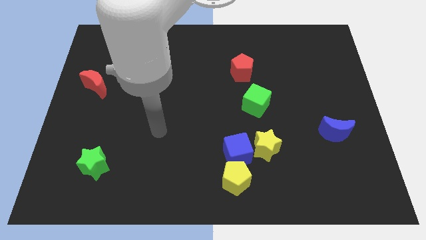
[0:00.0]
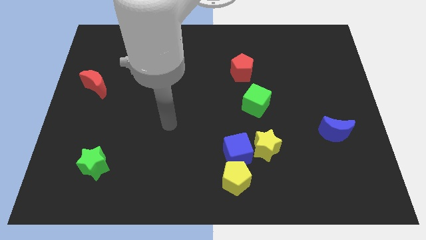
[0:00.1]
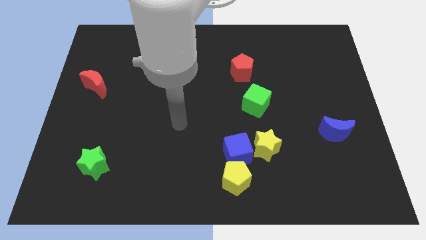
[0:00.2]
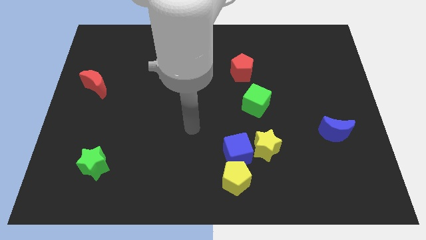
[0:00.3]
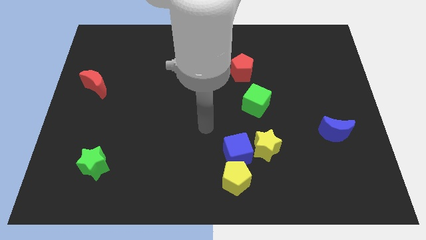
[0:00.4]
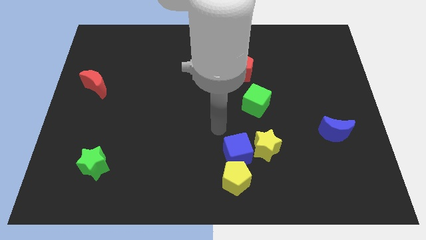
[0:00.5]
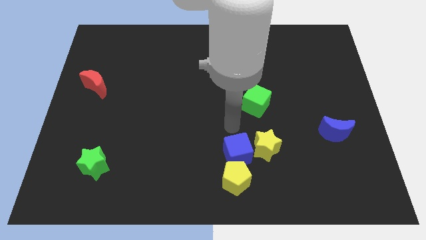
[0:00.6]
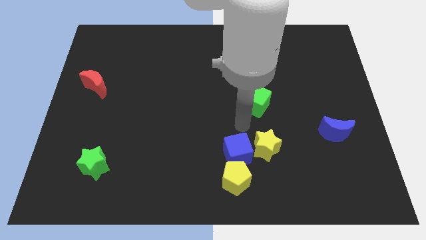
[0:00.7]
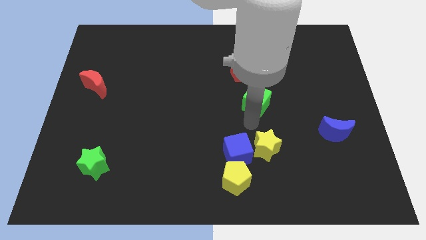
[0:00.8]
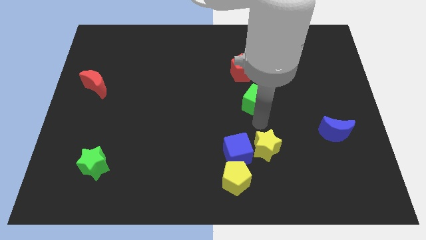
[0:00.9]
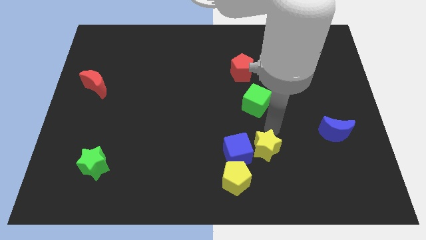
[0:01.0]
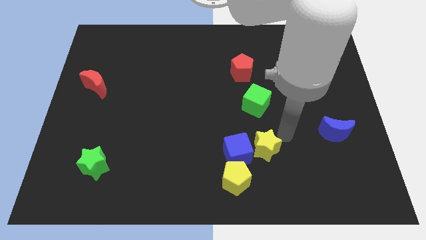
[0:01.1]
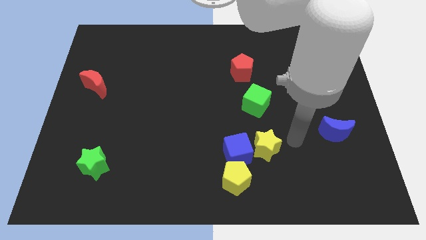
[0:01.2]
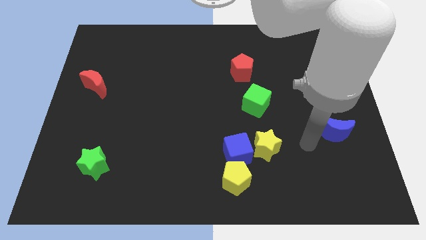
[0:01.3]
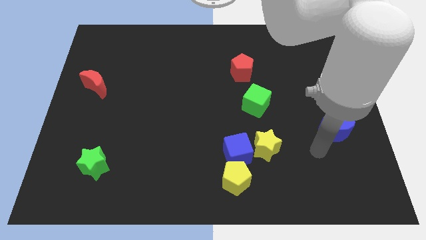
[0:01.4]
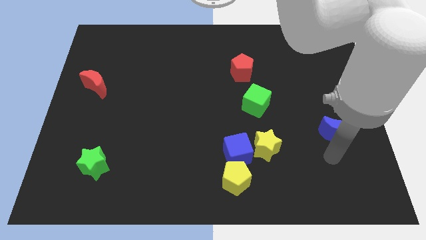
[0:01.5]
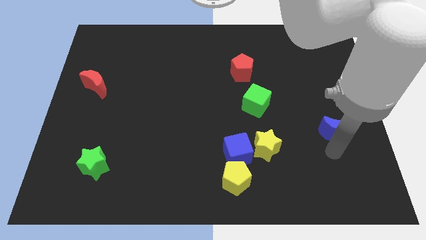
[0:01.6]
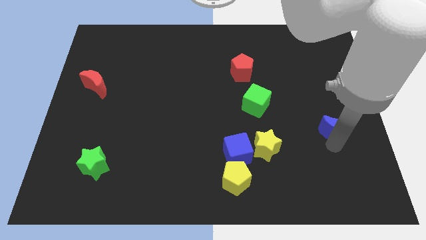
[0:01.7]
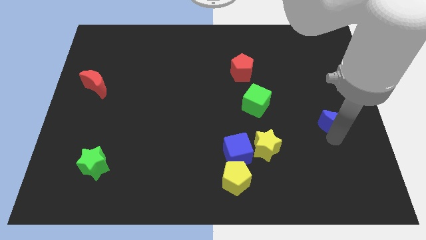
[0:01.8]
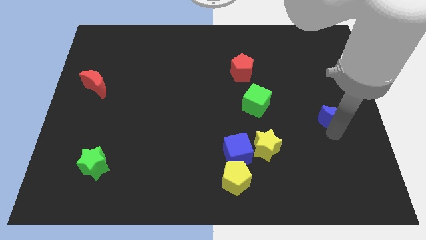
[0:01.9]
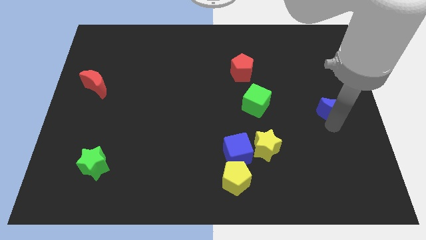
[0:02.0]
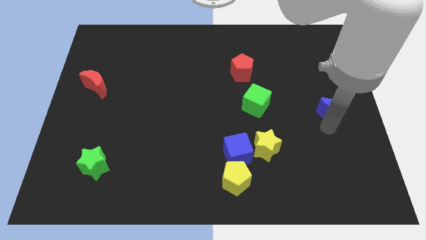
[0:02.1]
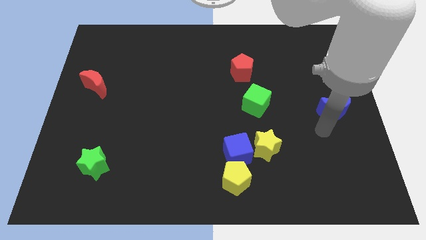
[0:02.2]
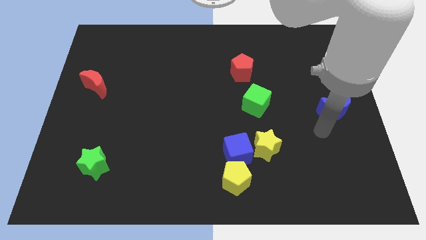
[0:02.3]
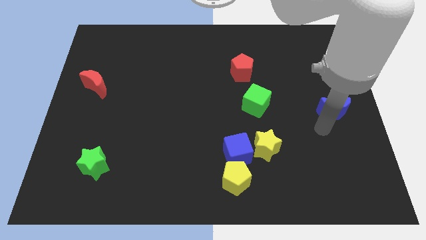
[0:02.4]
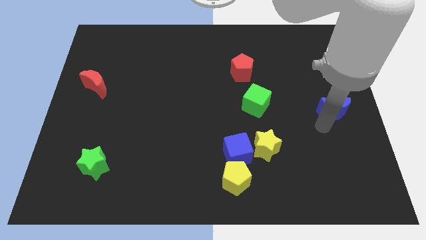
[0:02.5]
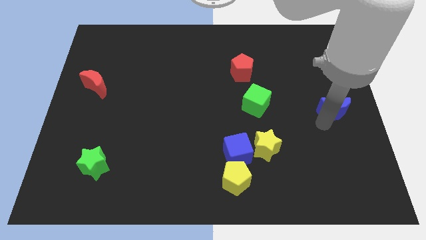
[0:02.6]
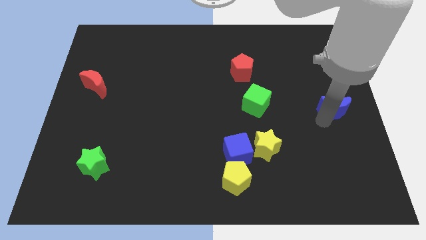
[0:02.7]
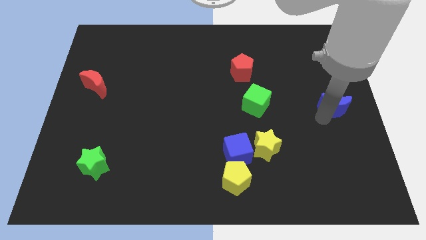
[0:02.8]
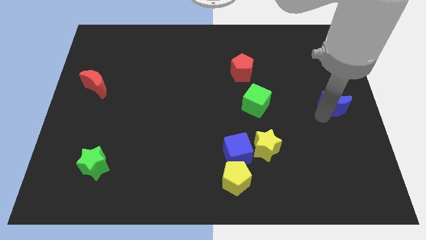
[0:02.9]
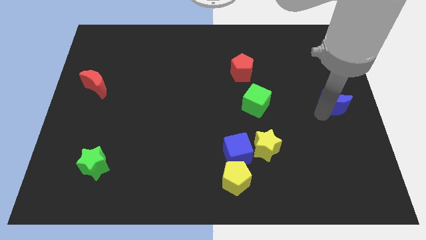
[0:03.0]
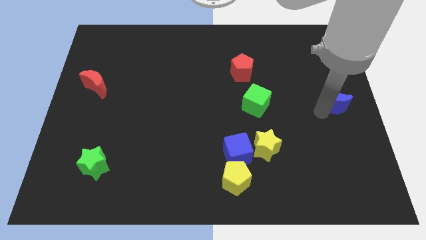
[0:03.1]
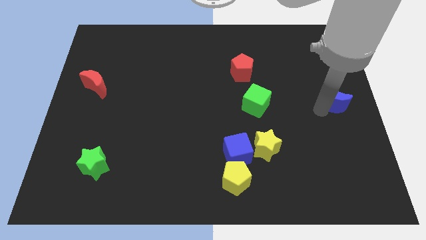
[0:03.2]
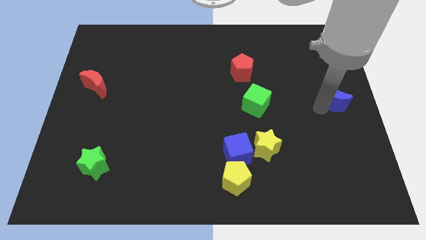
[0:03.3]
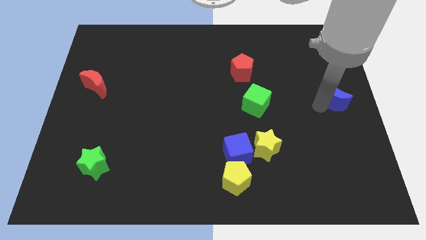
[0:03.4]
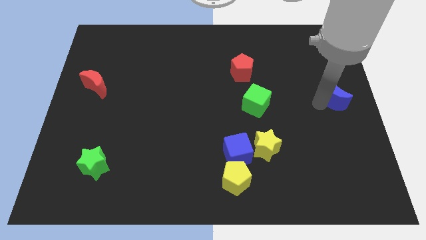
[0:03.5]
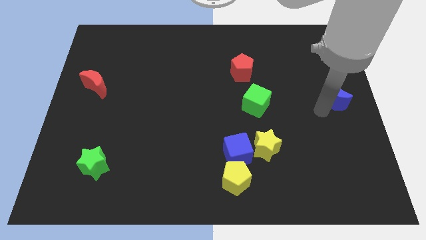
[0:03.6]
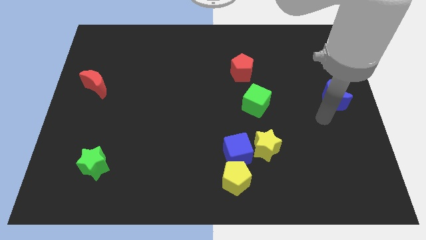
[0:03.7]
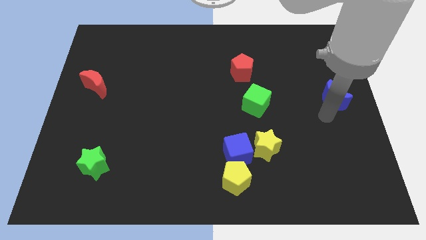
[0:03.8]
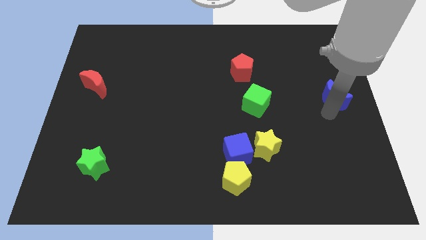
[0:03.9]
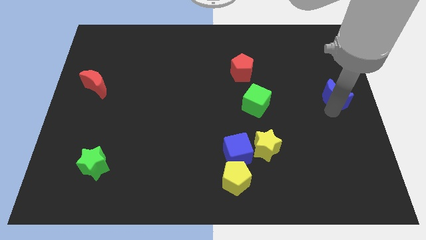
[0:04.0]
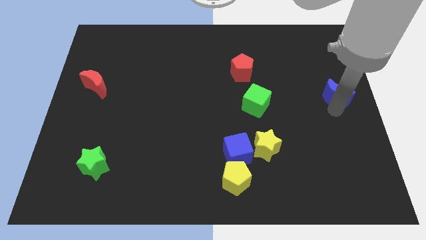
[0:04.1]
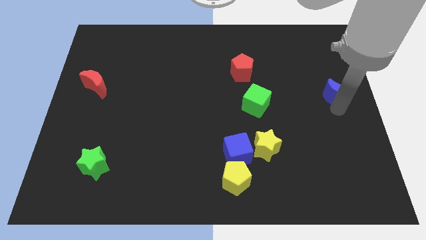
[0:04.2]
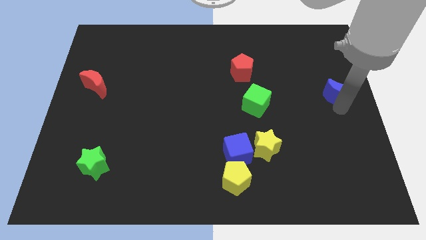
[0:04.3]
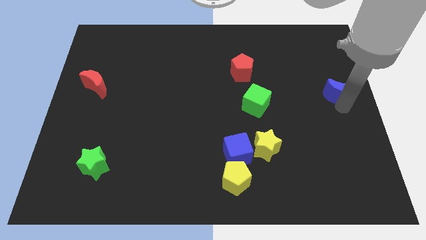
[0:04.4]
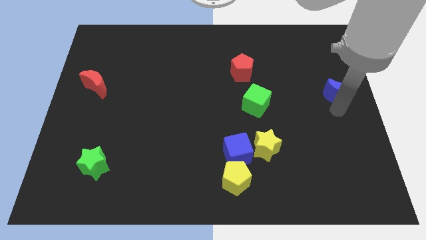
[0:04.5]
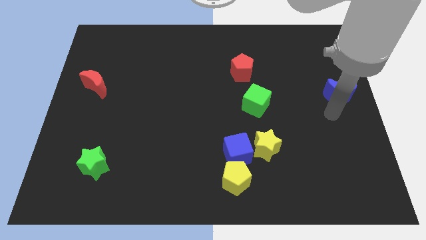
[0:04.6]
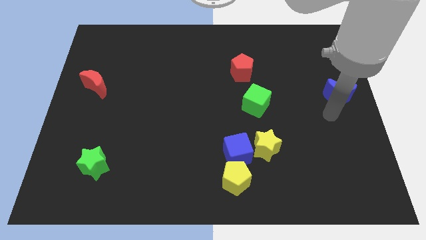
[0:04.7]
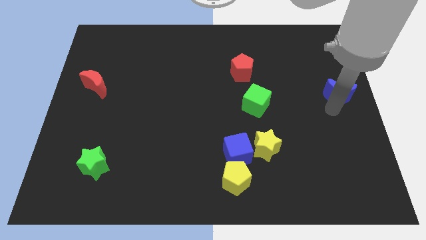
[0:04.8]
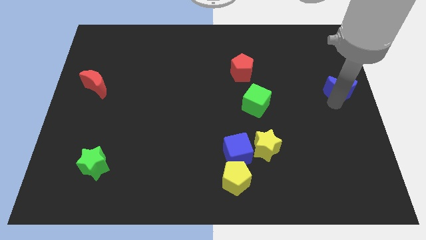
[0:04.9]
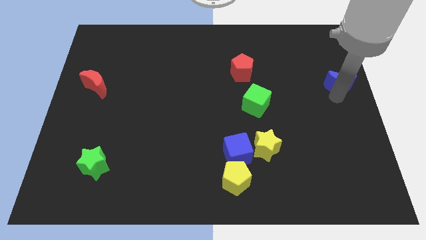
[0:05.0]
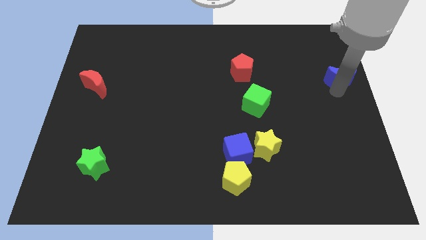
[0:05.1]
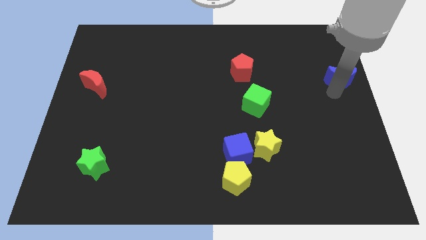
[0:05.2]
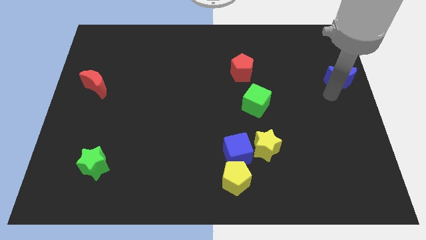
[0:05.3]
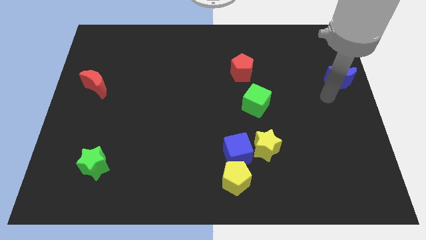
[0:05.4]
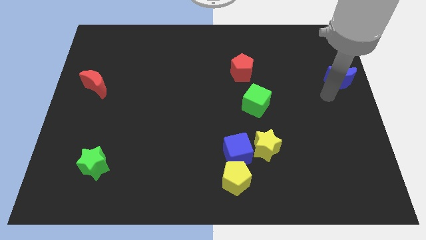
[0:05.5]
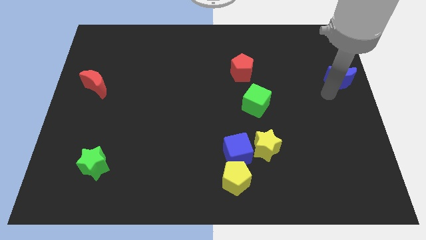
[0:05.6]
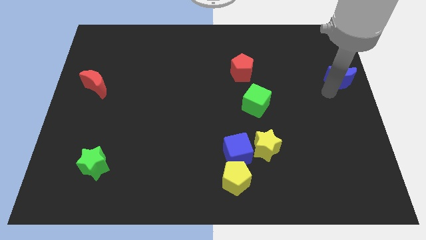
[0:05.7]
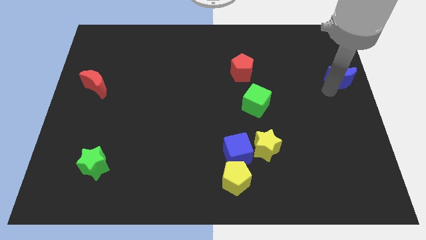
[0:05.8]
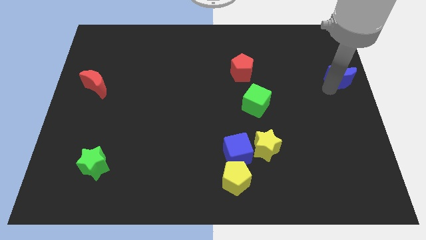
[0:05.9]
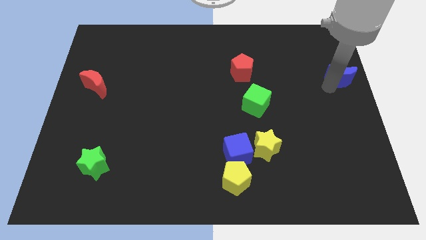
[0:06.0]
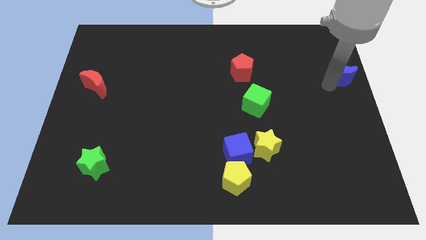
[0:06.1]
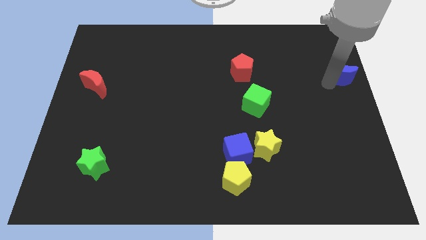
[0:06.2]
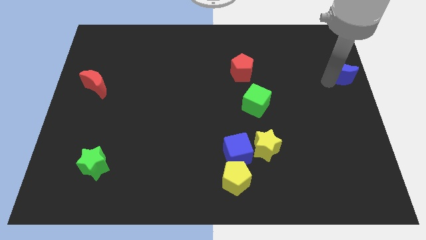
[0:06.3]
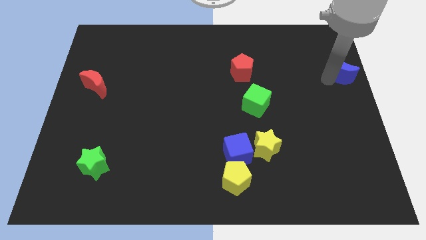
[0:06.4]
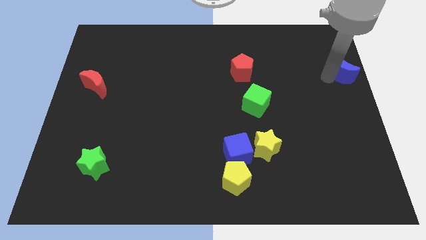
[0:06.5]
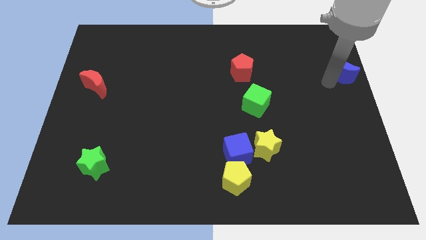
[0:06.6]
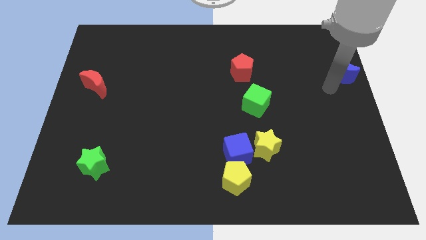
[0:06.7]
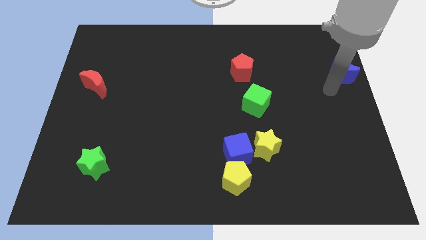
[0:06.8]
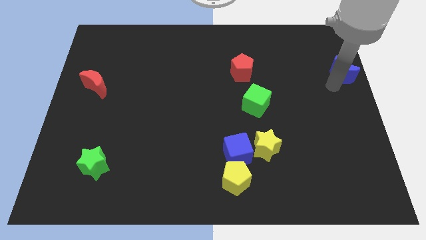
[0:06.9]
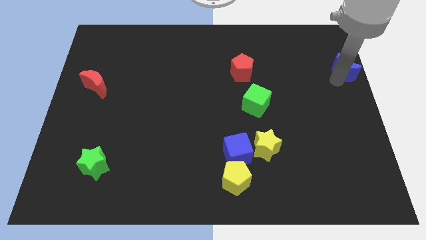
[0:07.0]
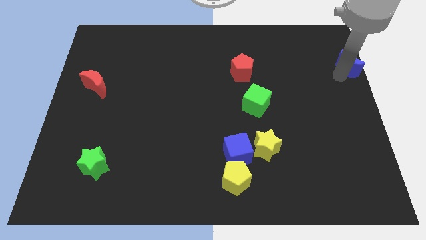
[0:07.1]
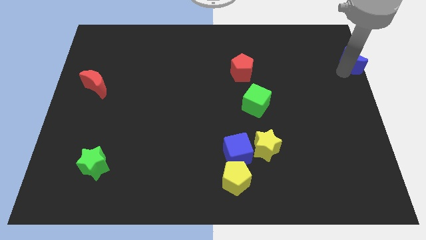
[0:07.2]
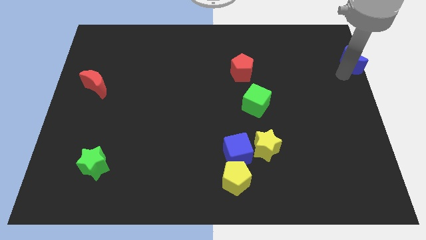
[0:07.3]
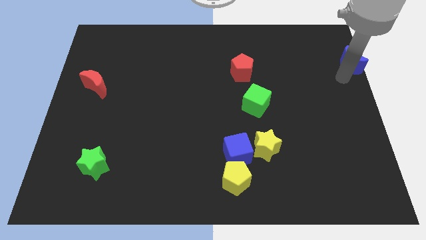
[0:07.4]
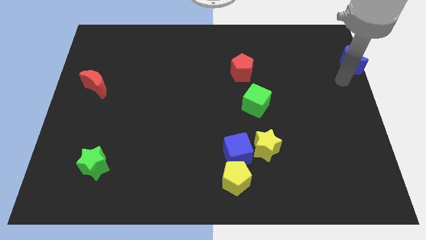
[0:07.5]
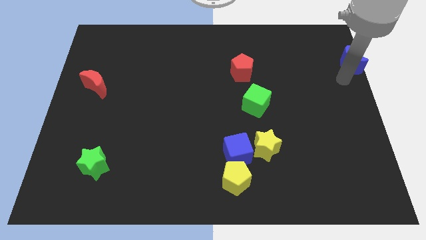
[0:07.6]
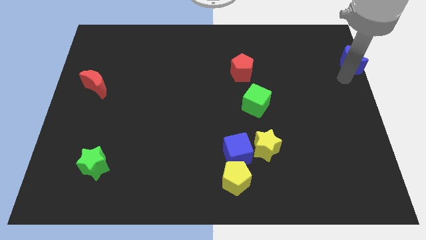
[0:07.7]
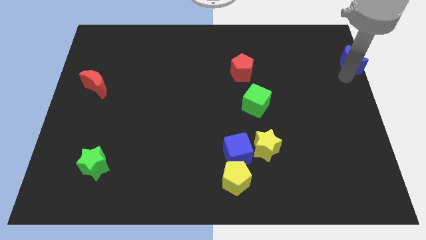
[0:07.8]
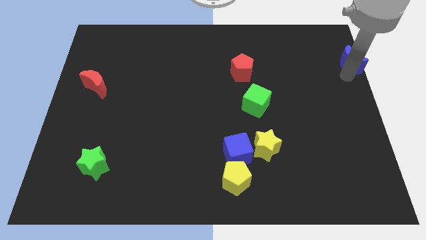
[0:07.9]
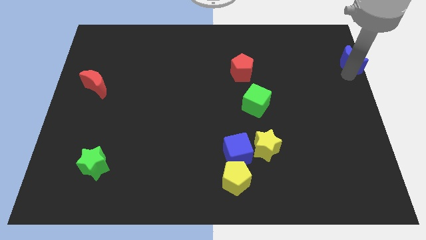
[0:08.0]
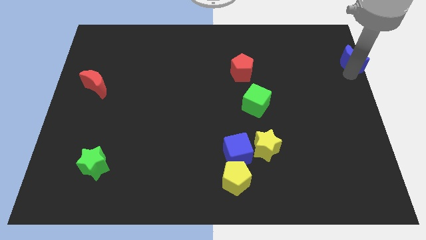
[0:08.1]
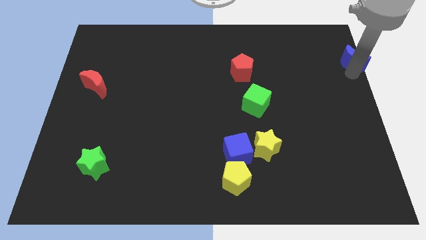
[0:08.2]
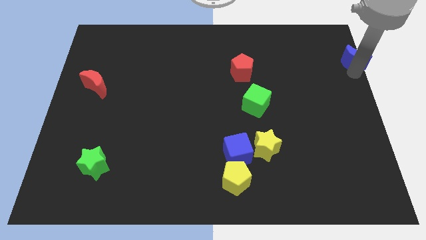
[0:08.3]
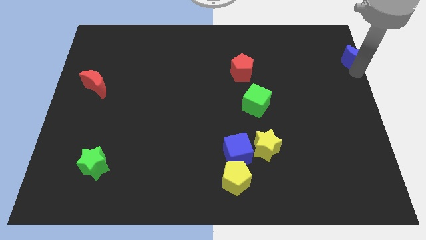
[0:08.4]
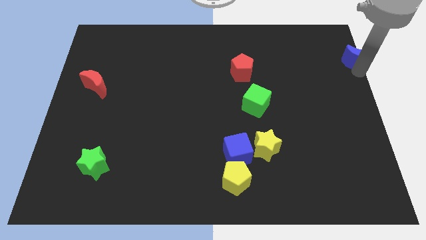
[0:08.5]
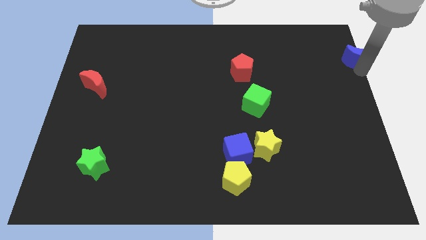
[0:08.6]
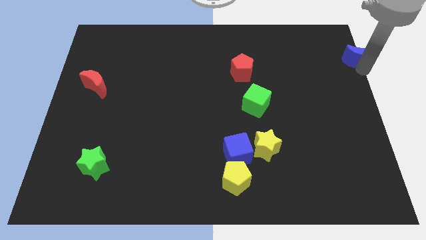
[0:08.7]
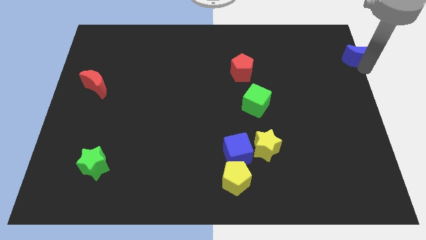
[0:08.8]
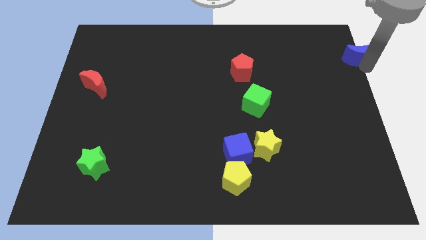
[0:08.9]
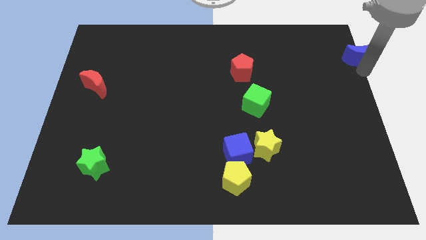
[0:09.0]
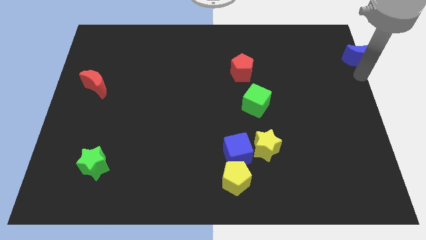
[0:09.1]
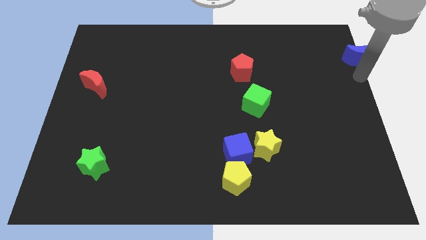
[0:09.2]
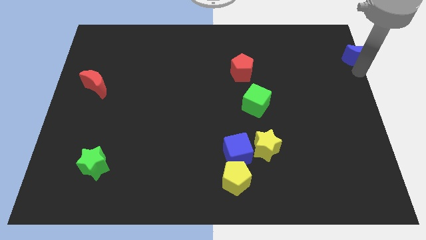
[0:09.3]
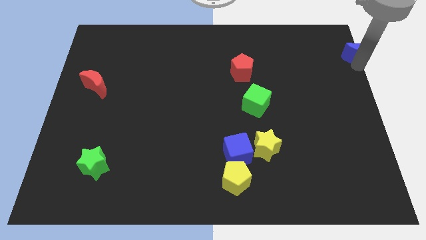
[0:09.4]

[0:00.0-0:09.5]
put the blue moon to the top right corner
